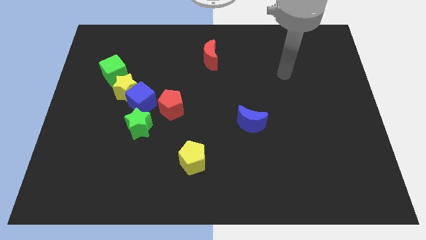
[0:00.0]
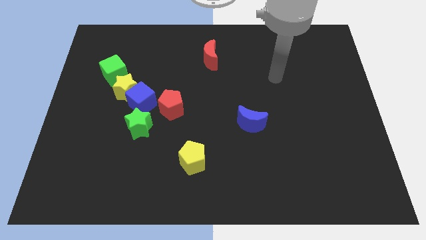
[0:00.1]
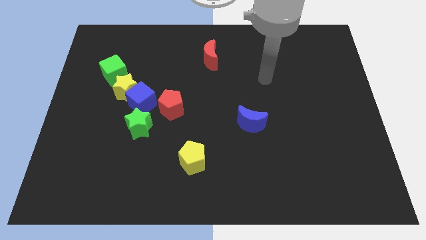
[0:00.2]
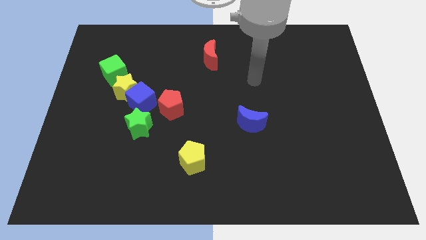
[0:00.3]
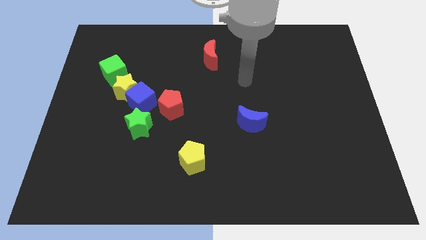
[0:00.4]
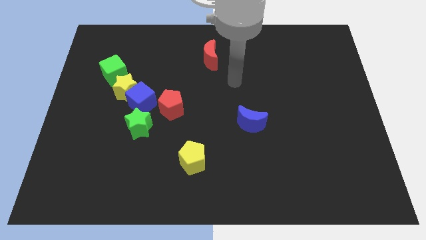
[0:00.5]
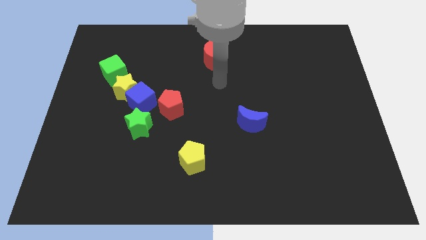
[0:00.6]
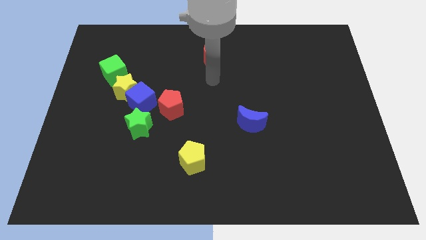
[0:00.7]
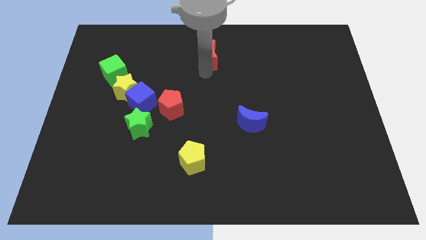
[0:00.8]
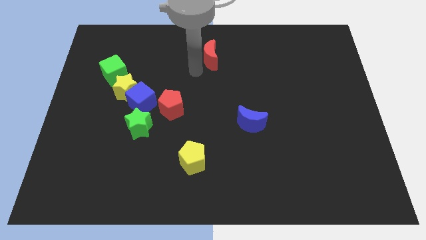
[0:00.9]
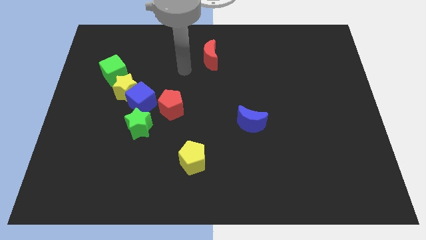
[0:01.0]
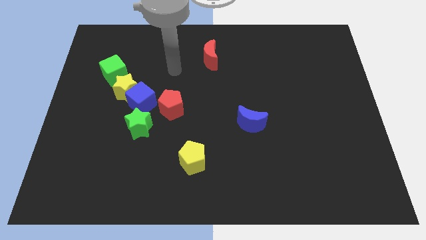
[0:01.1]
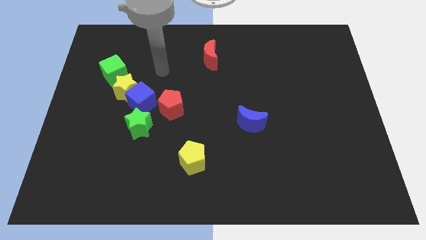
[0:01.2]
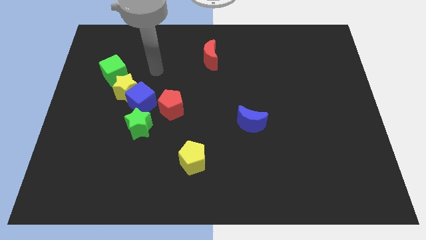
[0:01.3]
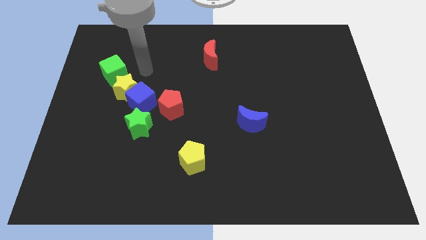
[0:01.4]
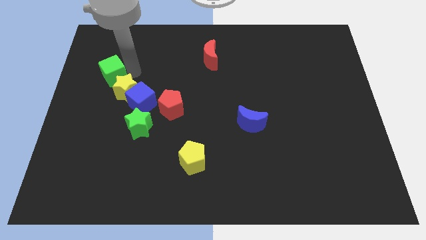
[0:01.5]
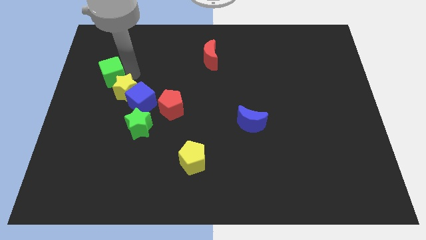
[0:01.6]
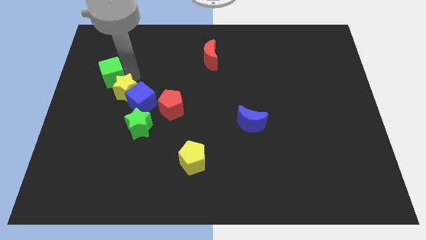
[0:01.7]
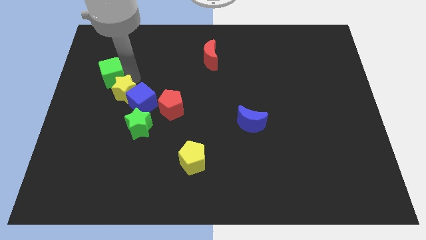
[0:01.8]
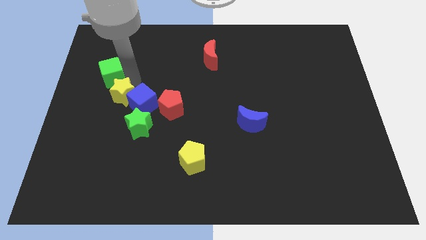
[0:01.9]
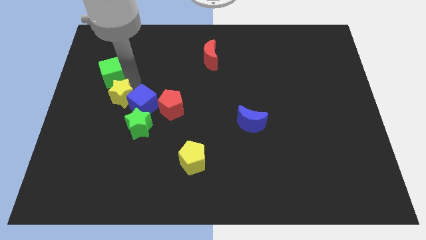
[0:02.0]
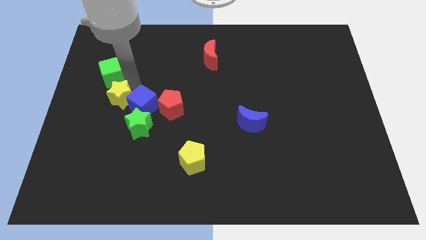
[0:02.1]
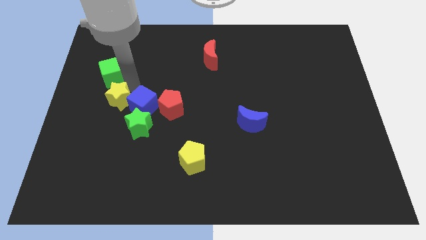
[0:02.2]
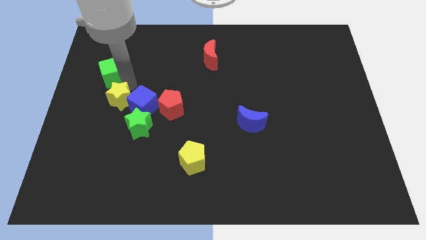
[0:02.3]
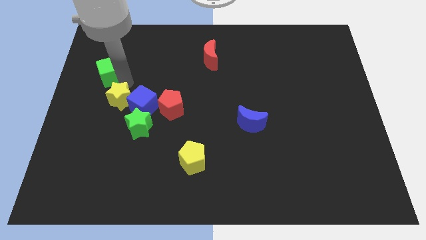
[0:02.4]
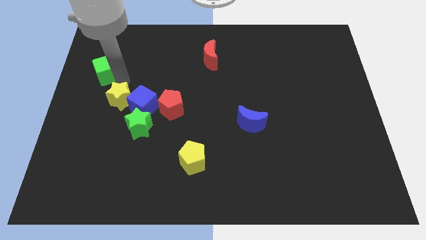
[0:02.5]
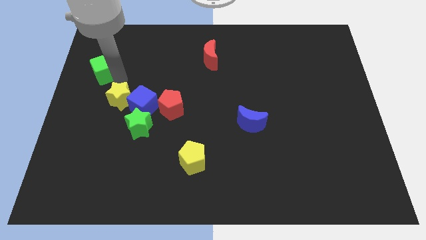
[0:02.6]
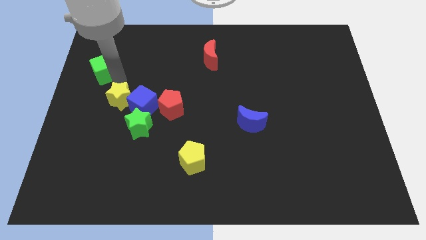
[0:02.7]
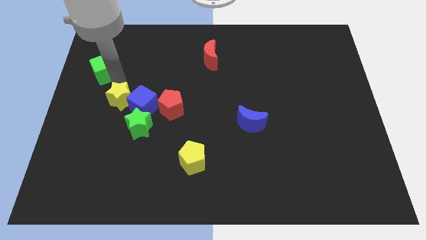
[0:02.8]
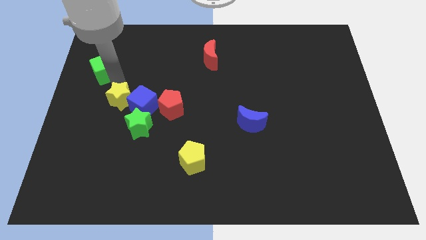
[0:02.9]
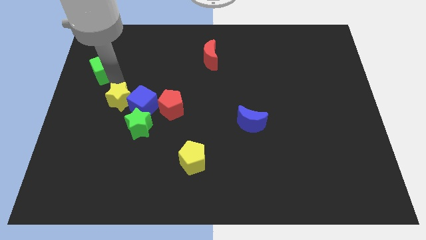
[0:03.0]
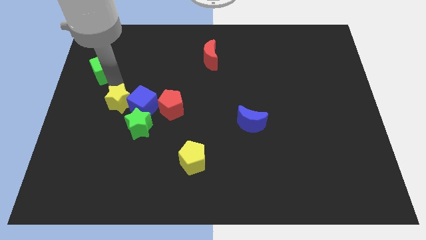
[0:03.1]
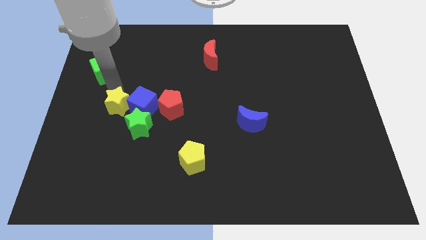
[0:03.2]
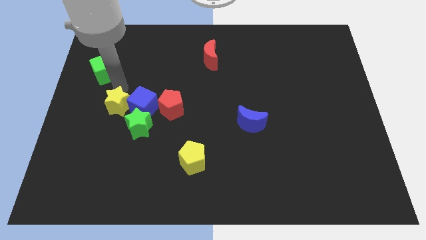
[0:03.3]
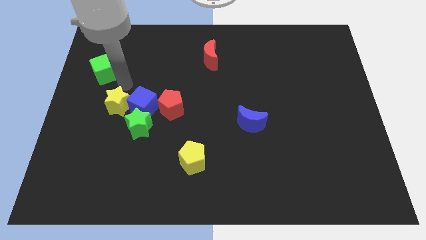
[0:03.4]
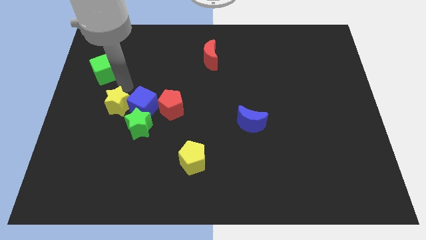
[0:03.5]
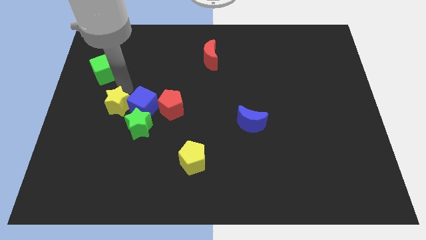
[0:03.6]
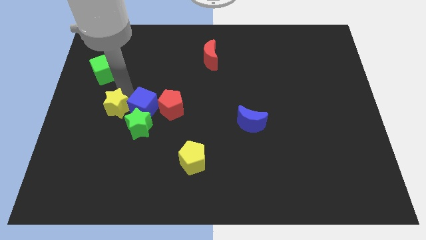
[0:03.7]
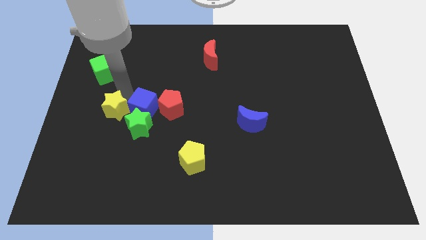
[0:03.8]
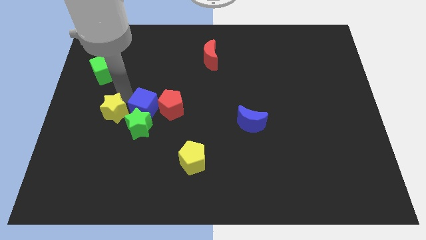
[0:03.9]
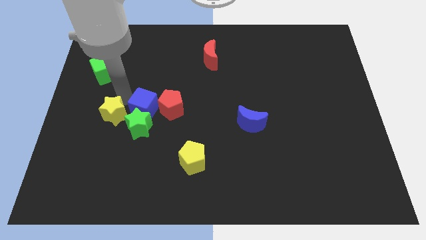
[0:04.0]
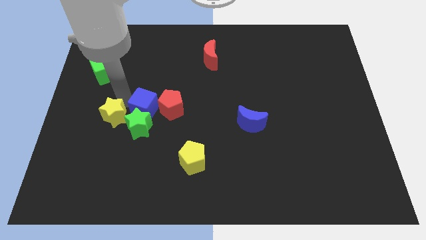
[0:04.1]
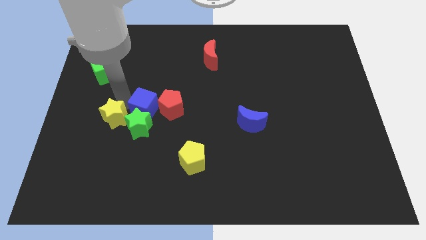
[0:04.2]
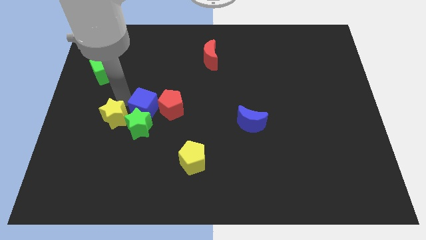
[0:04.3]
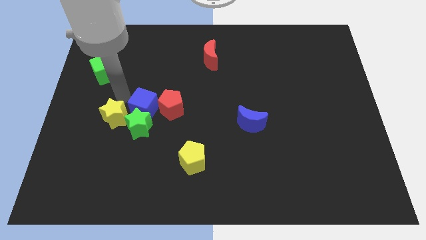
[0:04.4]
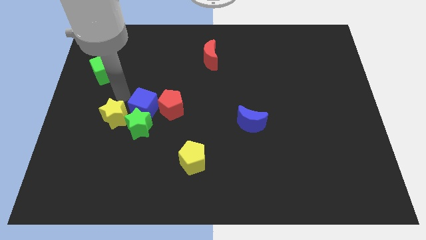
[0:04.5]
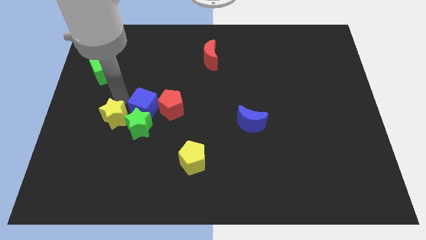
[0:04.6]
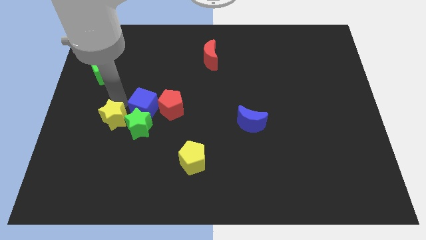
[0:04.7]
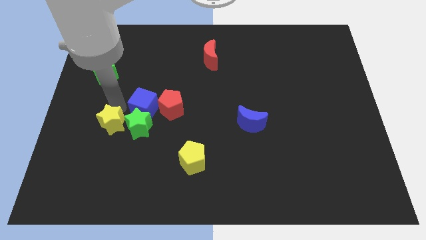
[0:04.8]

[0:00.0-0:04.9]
move the yellow star away from the blue cube and green cube

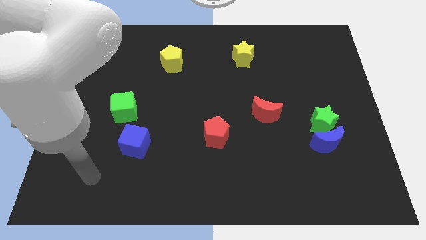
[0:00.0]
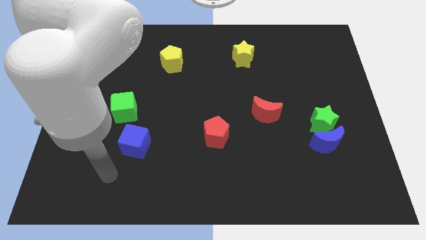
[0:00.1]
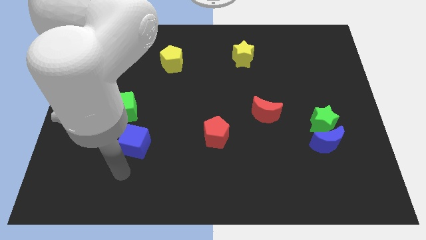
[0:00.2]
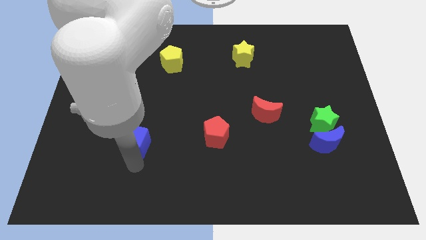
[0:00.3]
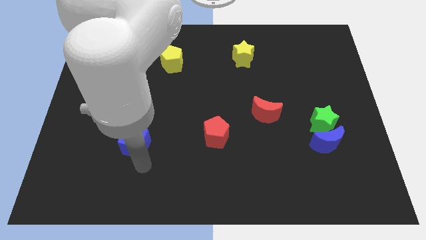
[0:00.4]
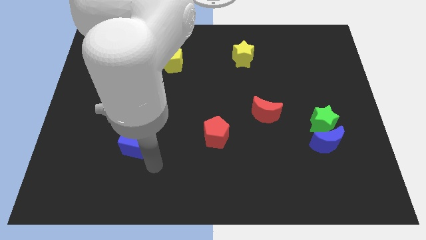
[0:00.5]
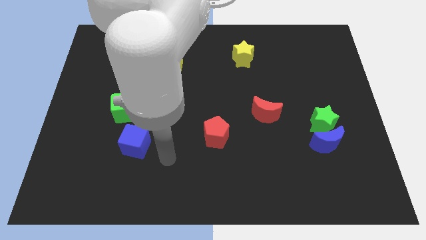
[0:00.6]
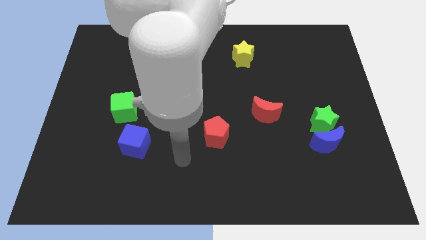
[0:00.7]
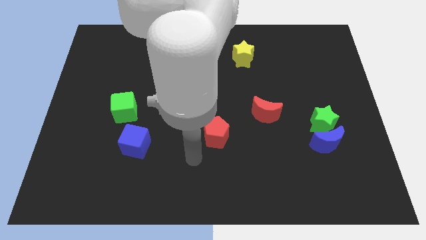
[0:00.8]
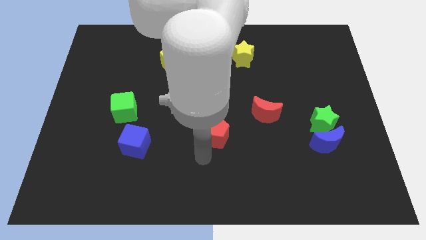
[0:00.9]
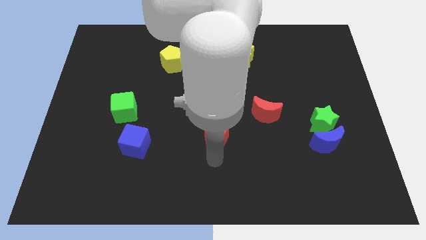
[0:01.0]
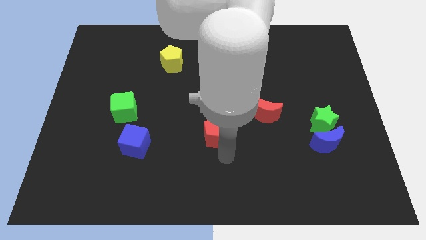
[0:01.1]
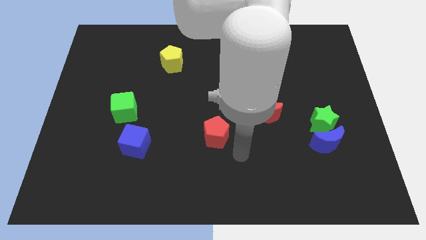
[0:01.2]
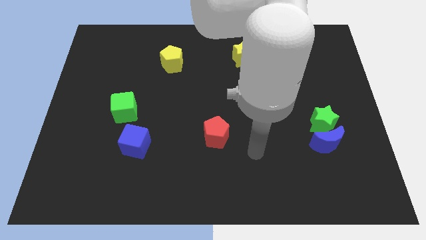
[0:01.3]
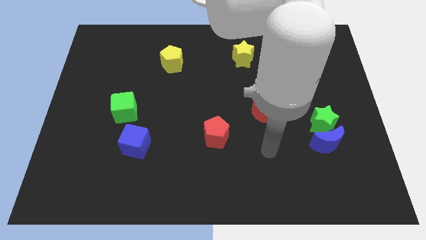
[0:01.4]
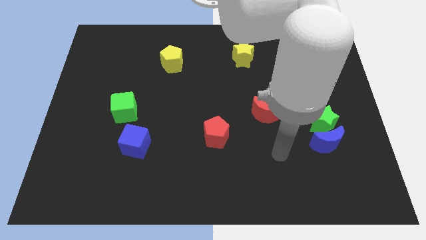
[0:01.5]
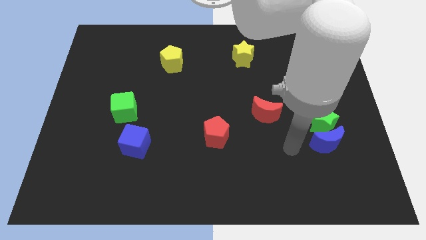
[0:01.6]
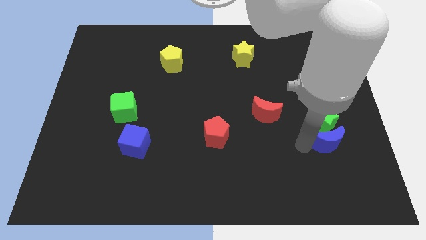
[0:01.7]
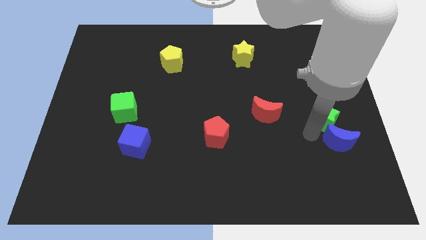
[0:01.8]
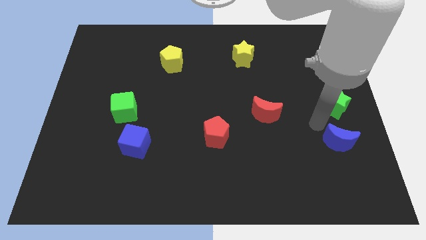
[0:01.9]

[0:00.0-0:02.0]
separate the blue moon from the green star

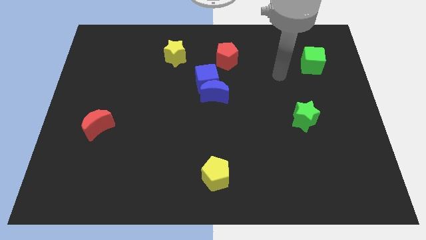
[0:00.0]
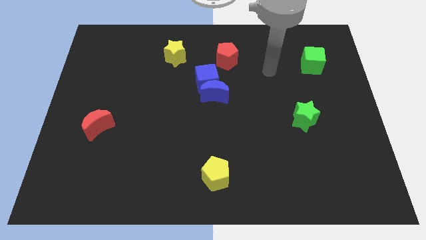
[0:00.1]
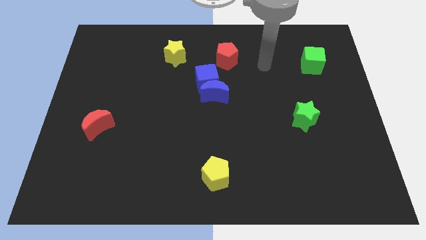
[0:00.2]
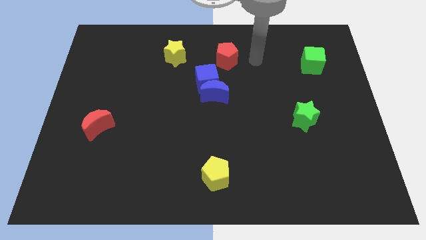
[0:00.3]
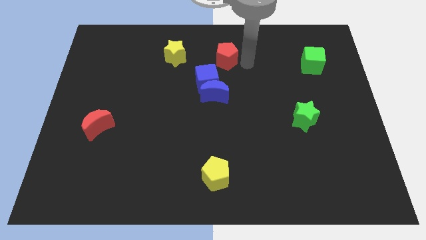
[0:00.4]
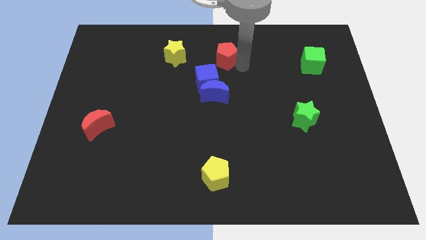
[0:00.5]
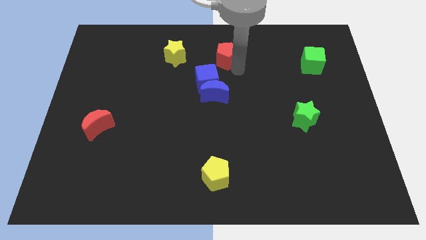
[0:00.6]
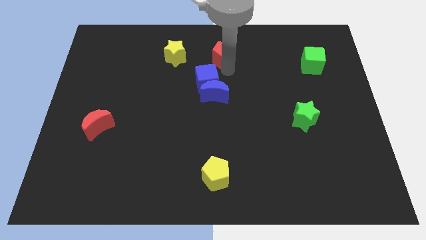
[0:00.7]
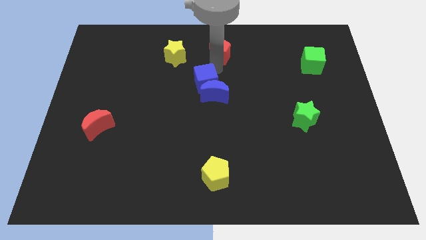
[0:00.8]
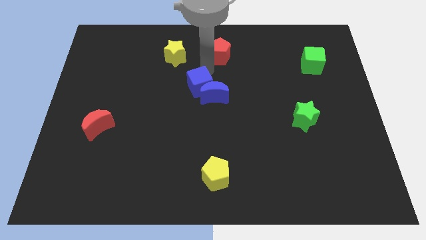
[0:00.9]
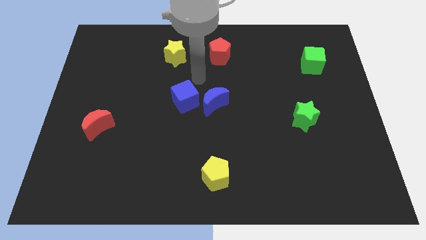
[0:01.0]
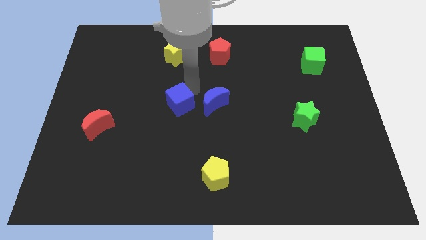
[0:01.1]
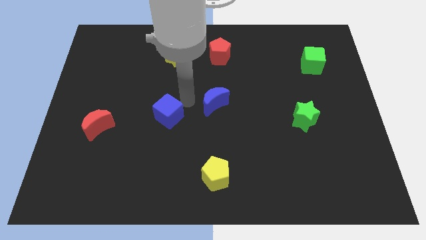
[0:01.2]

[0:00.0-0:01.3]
move the blue moon away from the blue cube

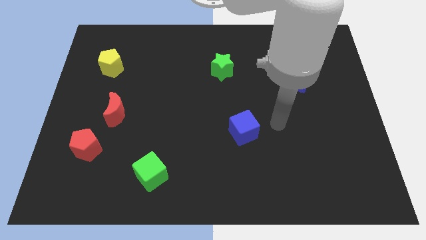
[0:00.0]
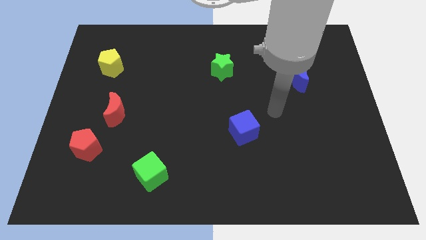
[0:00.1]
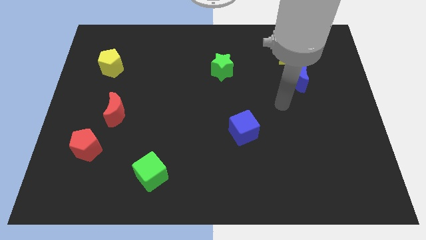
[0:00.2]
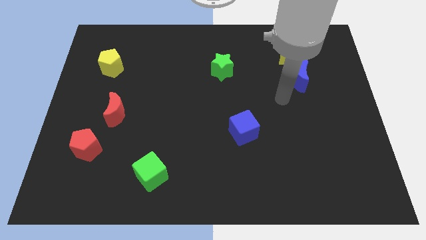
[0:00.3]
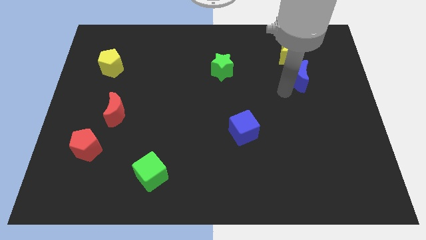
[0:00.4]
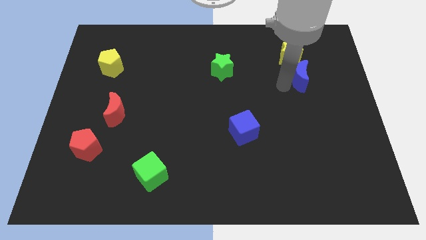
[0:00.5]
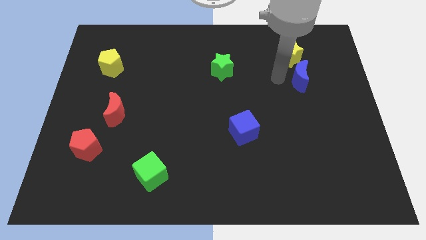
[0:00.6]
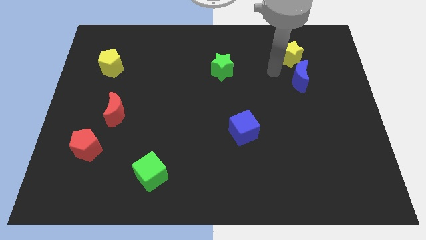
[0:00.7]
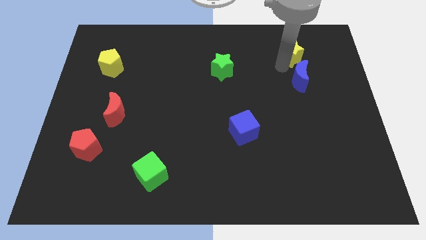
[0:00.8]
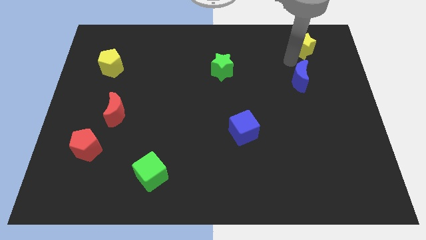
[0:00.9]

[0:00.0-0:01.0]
separate the blue moon from the yellow star
